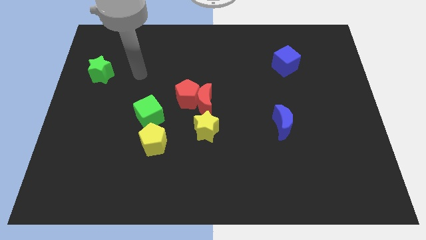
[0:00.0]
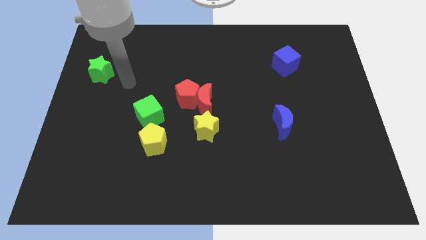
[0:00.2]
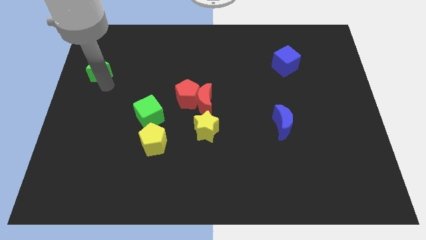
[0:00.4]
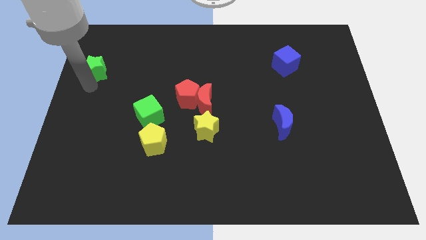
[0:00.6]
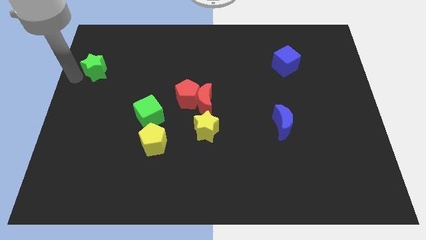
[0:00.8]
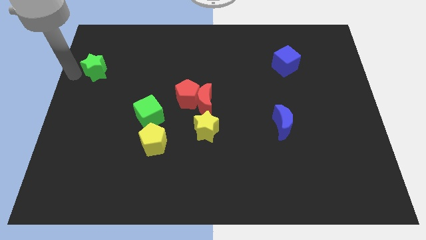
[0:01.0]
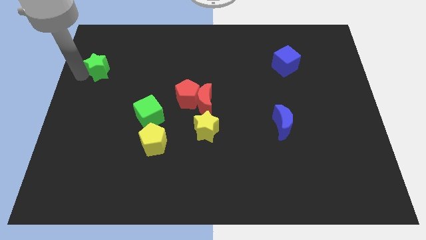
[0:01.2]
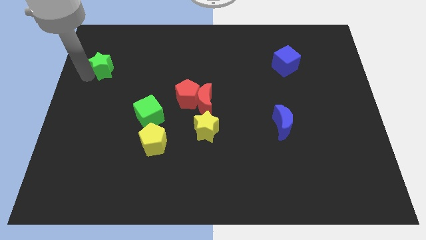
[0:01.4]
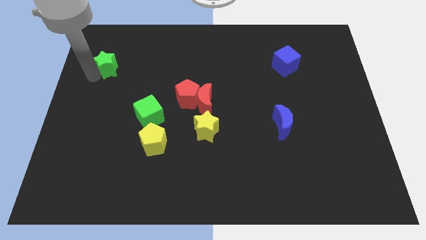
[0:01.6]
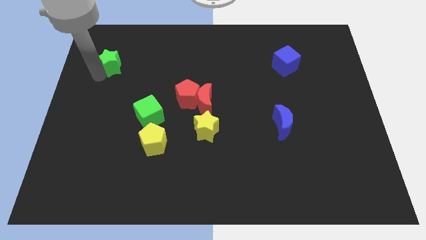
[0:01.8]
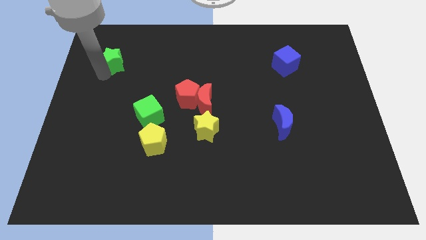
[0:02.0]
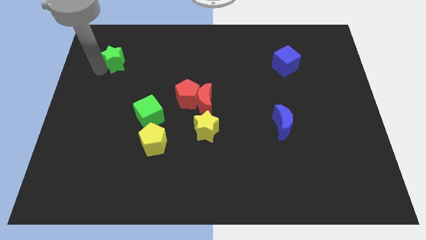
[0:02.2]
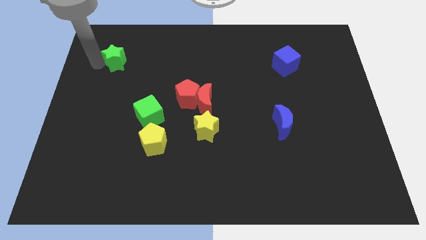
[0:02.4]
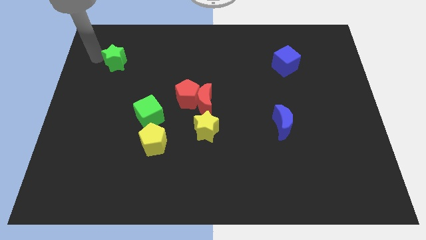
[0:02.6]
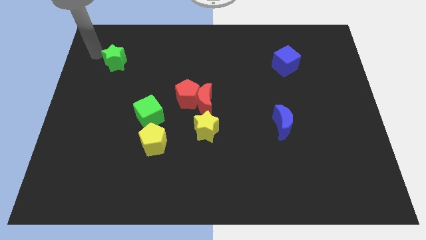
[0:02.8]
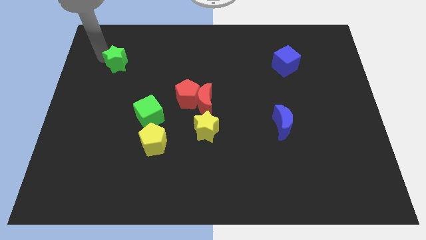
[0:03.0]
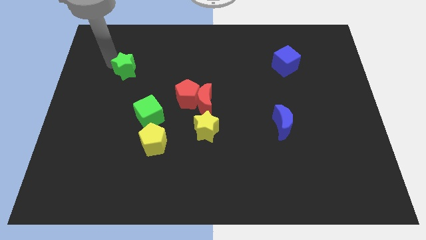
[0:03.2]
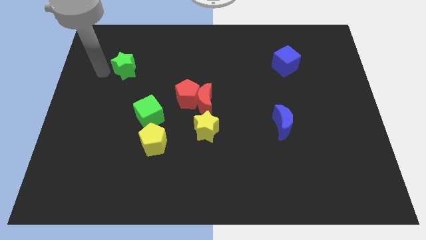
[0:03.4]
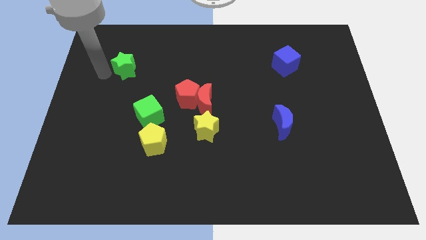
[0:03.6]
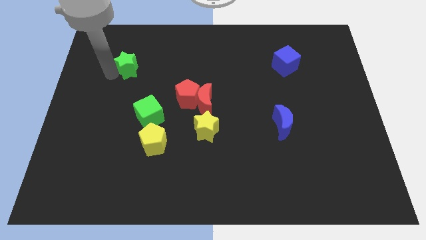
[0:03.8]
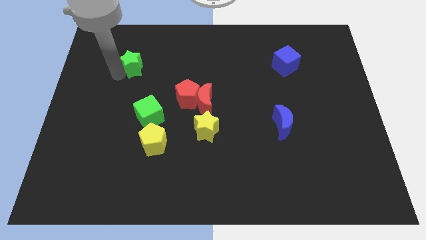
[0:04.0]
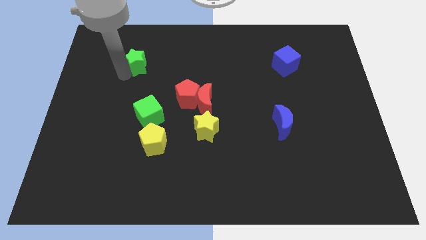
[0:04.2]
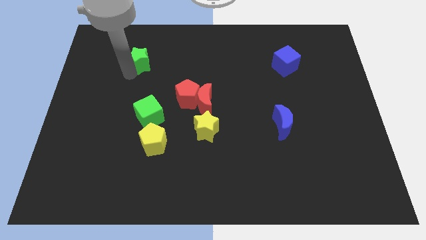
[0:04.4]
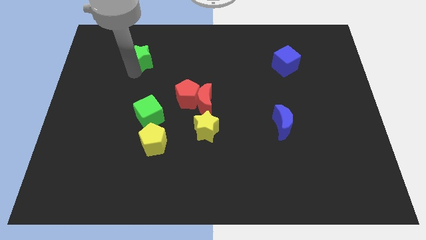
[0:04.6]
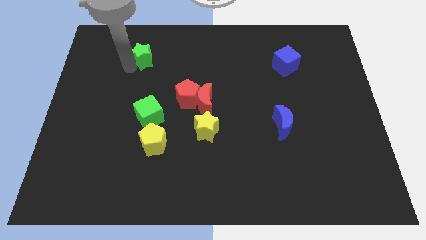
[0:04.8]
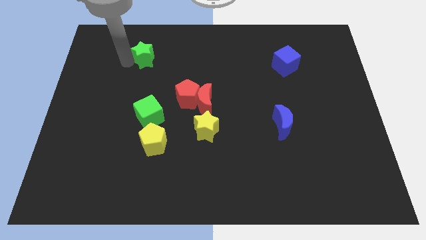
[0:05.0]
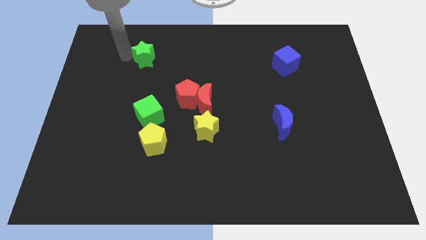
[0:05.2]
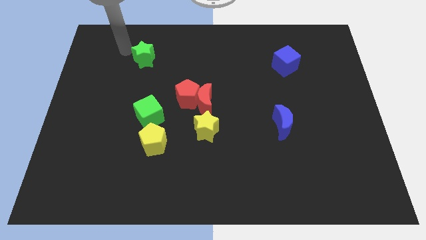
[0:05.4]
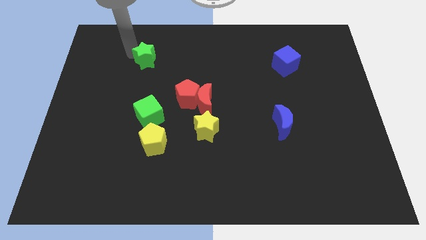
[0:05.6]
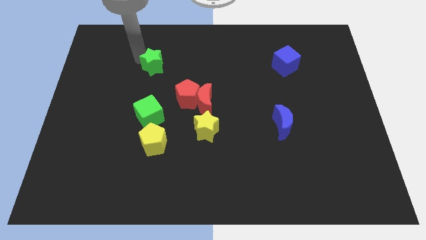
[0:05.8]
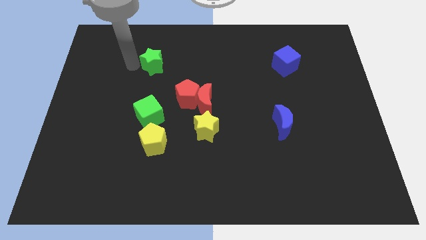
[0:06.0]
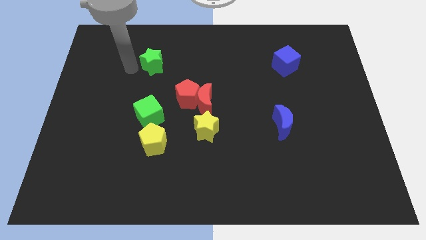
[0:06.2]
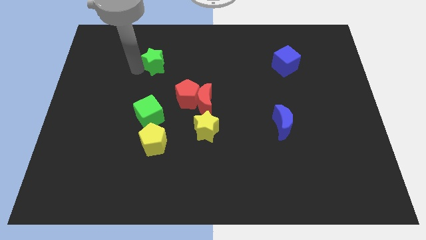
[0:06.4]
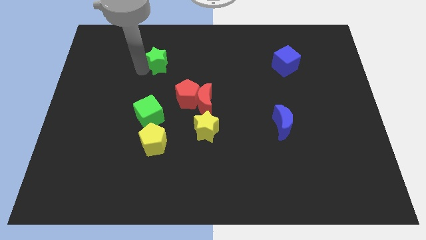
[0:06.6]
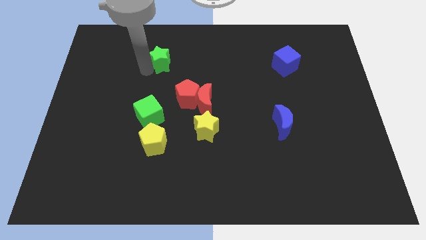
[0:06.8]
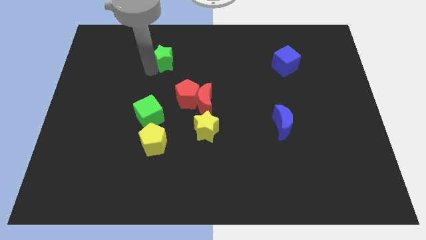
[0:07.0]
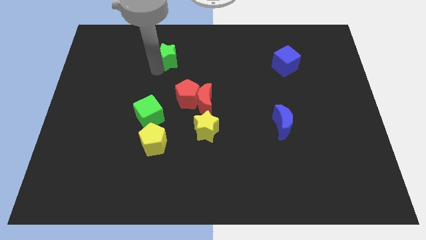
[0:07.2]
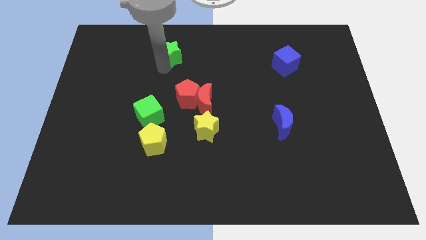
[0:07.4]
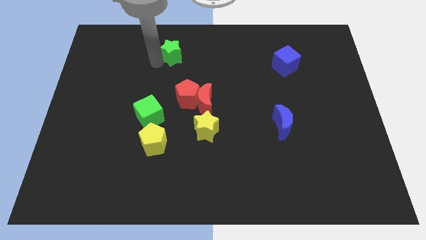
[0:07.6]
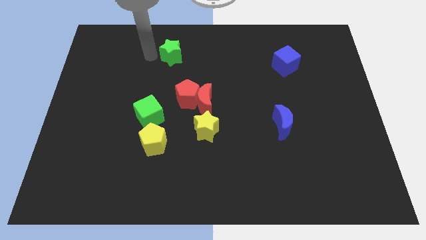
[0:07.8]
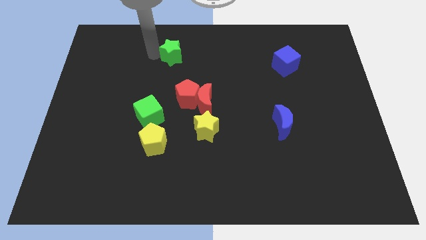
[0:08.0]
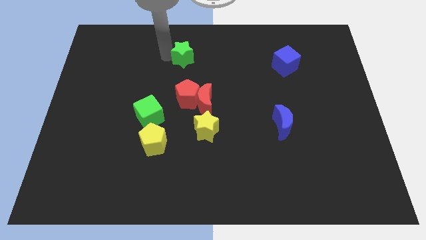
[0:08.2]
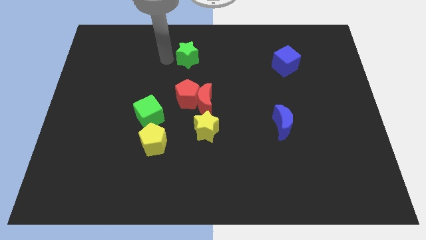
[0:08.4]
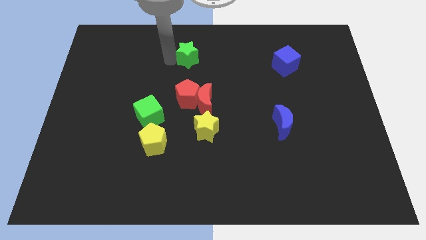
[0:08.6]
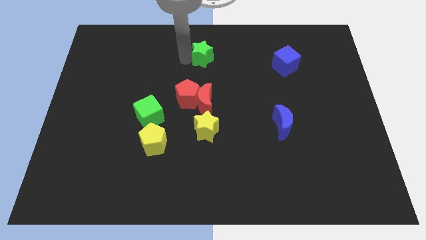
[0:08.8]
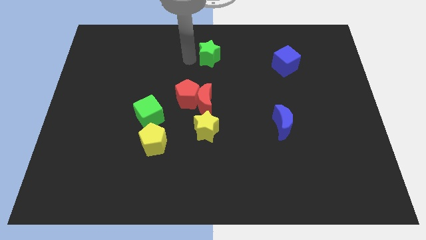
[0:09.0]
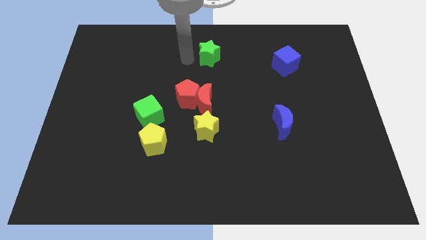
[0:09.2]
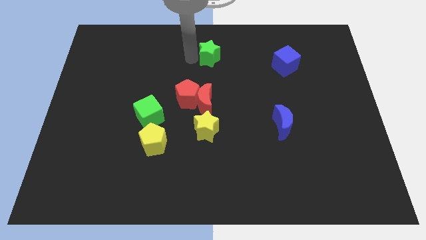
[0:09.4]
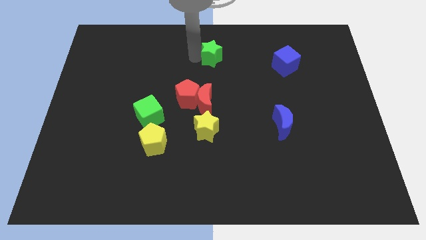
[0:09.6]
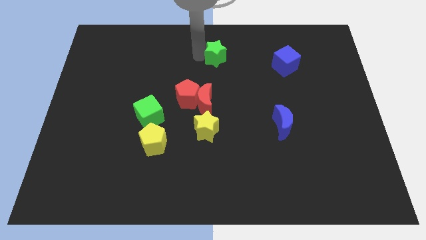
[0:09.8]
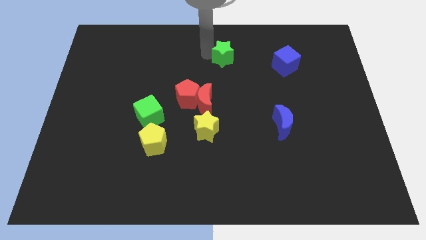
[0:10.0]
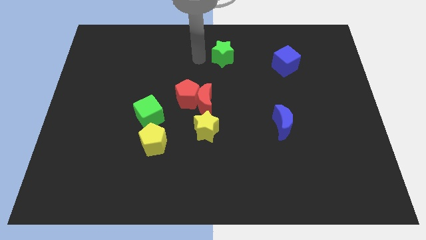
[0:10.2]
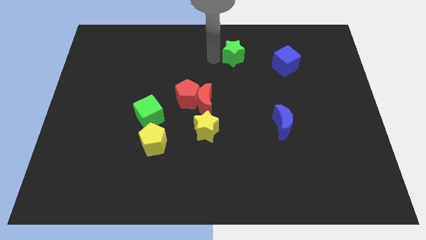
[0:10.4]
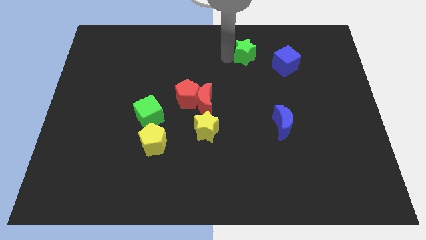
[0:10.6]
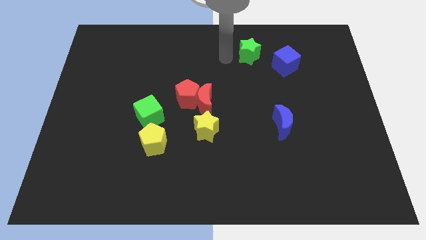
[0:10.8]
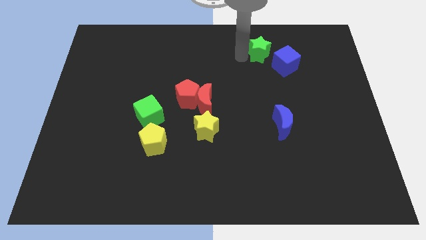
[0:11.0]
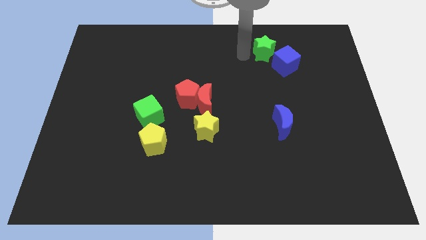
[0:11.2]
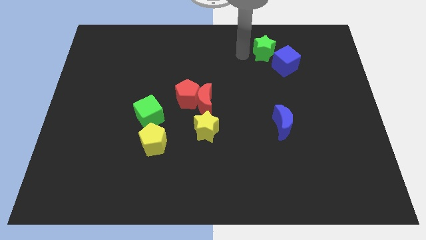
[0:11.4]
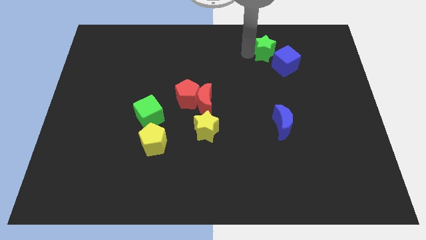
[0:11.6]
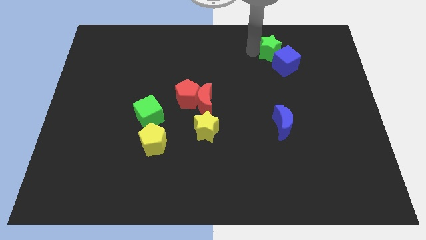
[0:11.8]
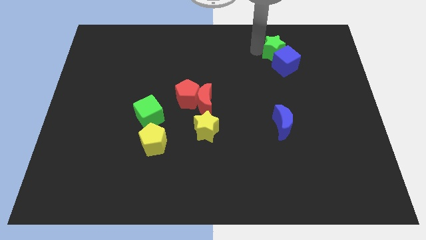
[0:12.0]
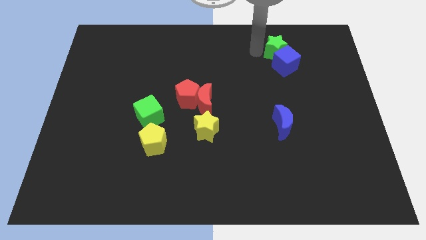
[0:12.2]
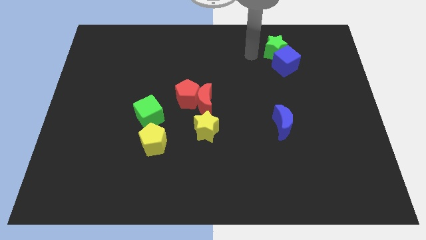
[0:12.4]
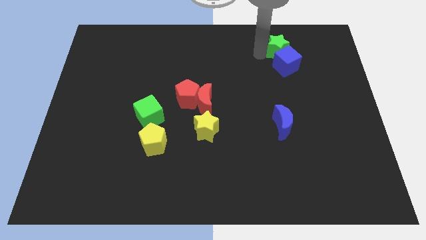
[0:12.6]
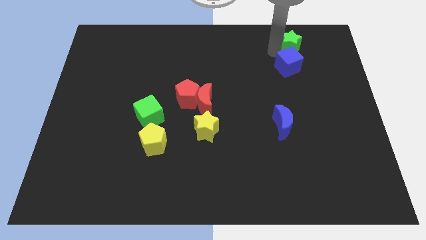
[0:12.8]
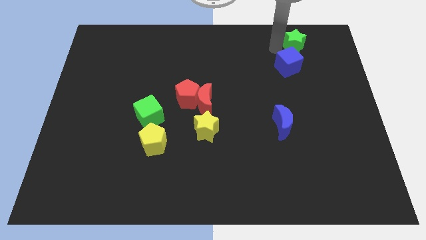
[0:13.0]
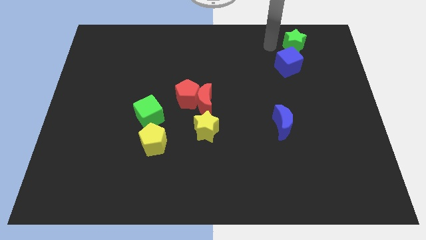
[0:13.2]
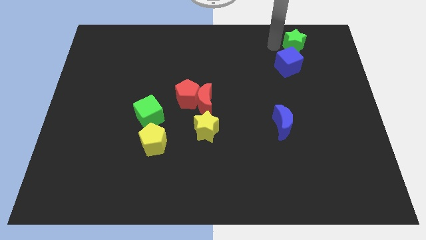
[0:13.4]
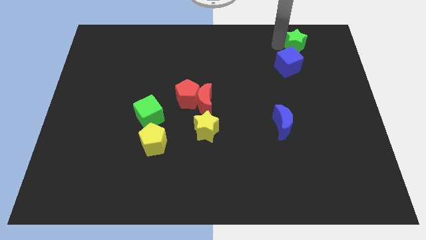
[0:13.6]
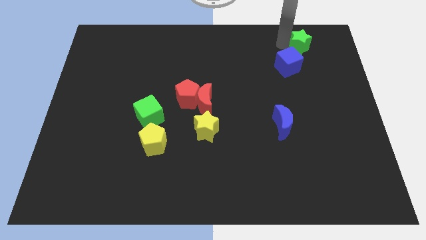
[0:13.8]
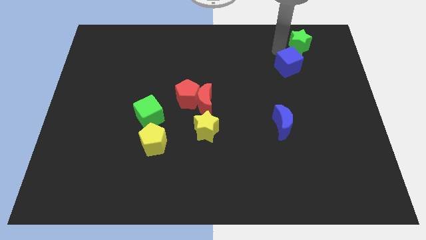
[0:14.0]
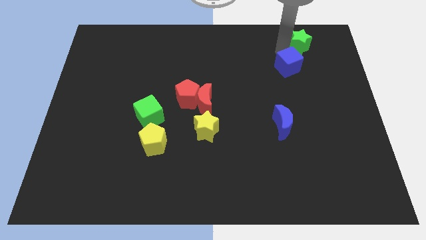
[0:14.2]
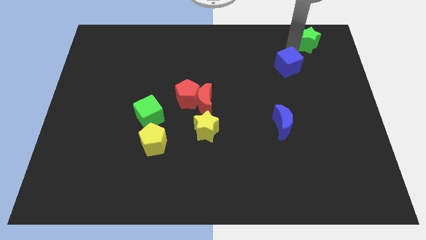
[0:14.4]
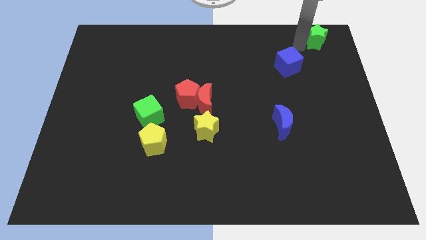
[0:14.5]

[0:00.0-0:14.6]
slide the green star to the top right corner
